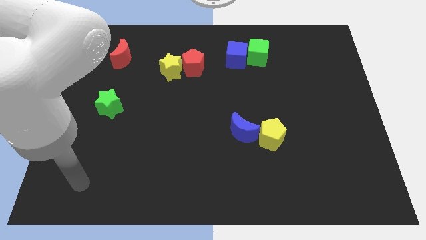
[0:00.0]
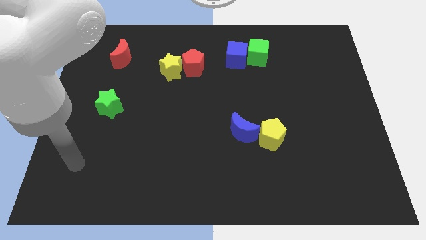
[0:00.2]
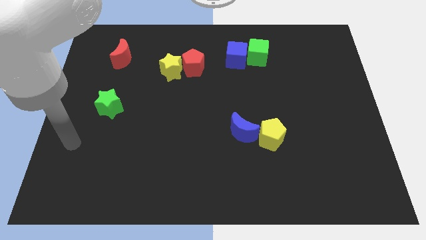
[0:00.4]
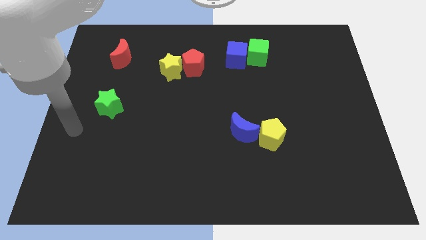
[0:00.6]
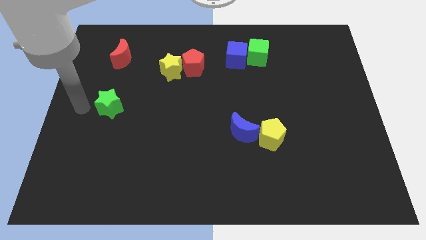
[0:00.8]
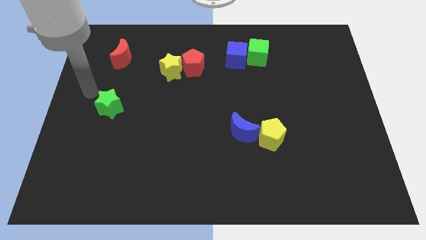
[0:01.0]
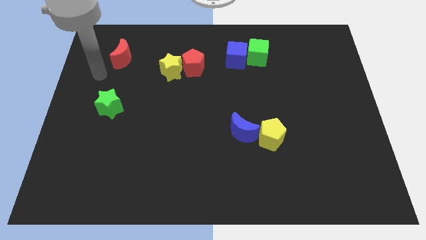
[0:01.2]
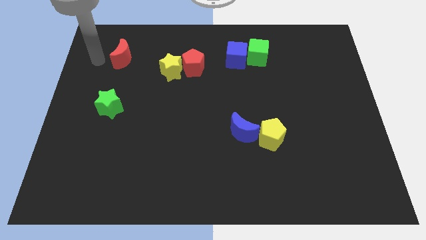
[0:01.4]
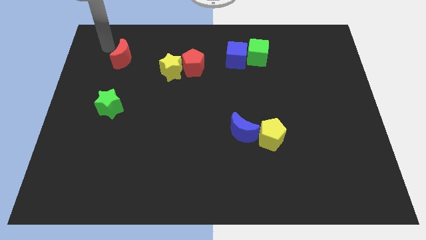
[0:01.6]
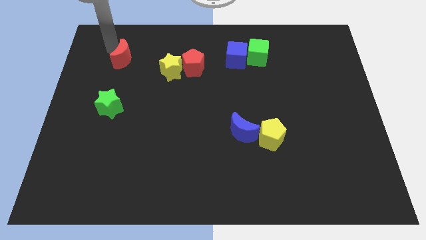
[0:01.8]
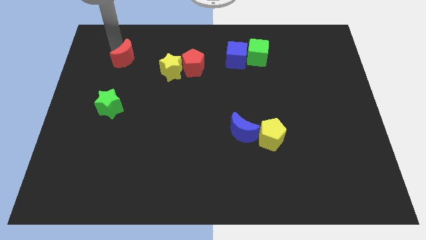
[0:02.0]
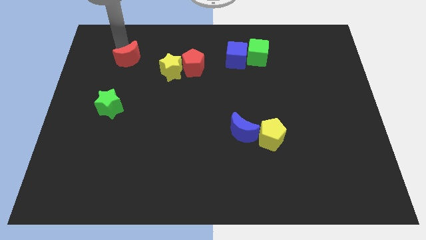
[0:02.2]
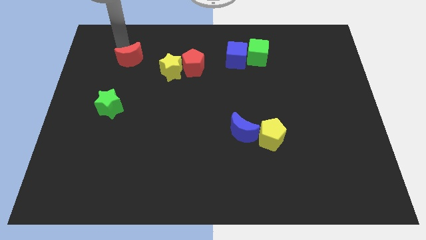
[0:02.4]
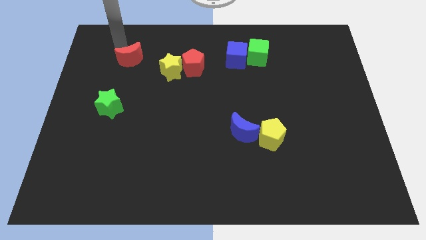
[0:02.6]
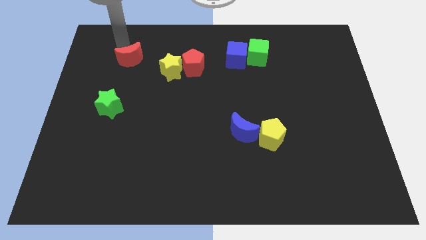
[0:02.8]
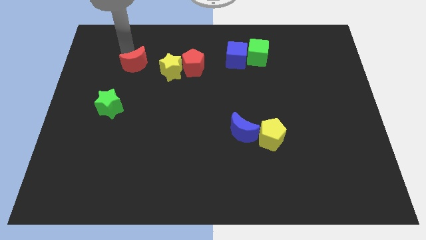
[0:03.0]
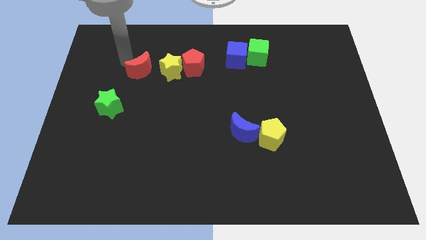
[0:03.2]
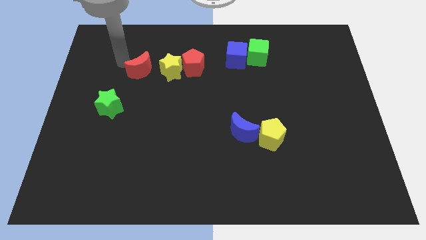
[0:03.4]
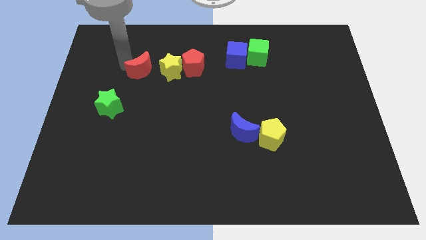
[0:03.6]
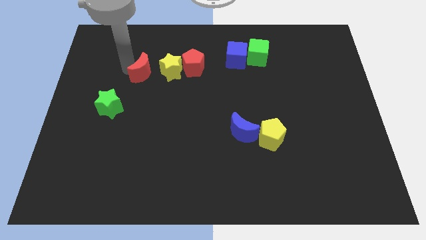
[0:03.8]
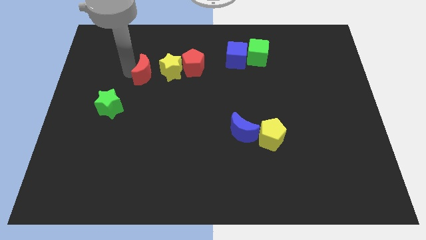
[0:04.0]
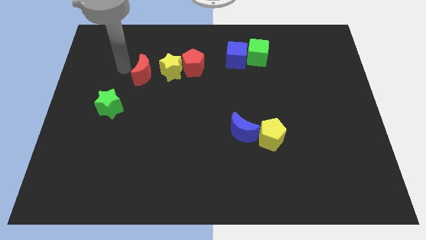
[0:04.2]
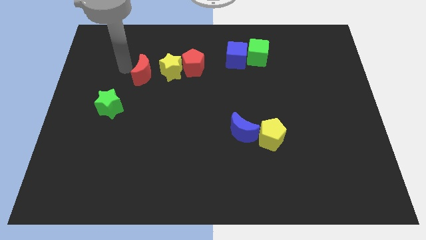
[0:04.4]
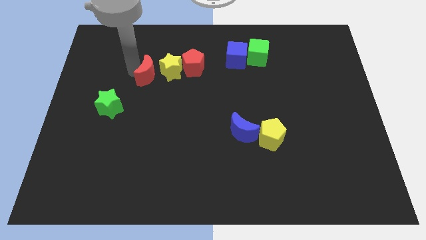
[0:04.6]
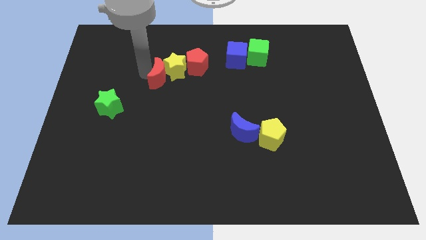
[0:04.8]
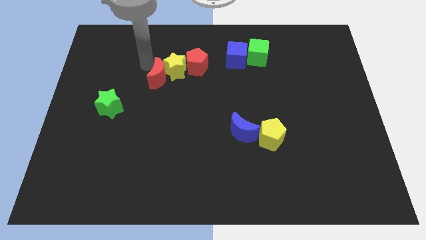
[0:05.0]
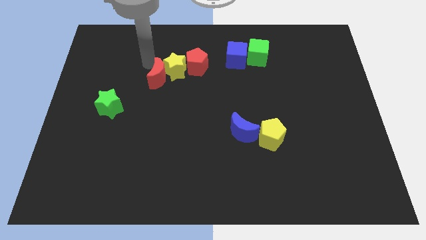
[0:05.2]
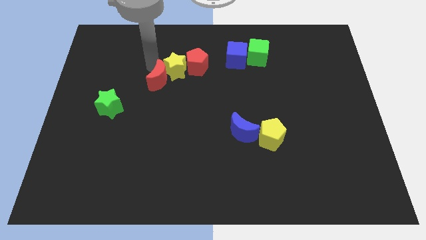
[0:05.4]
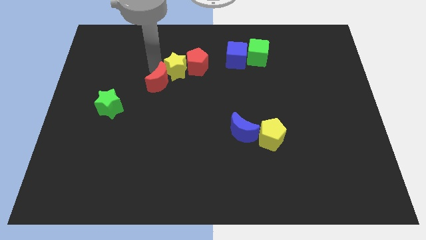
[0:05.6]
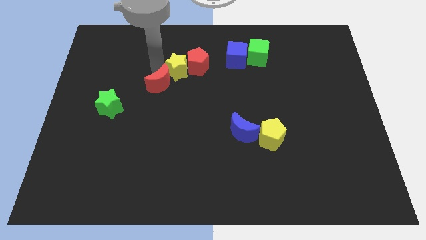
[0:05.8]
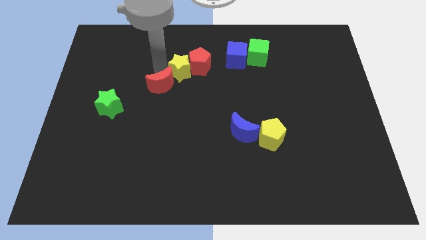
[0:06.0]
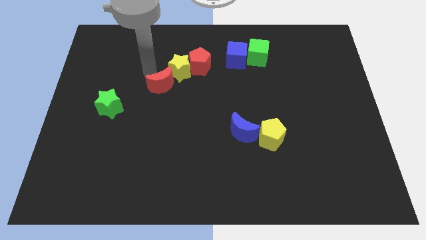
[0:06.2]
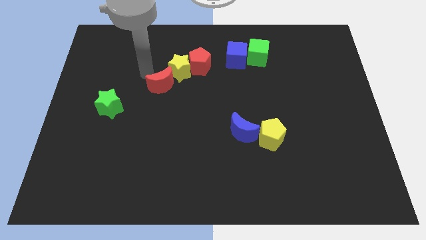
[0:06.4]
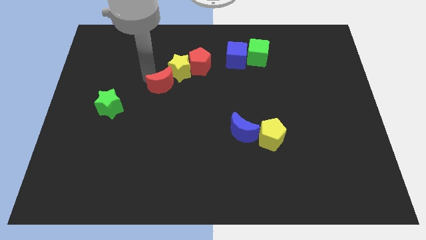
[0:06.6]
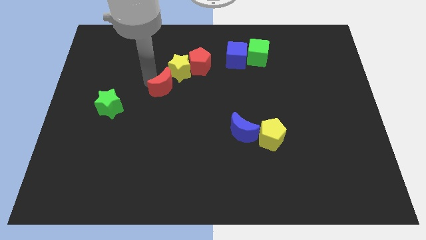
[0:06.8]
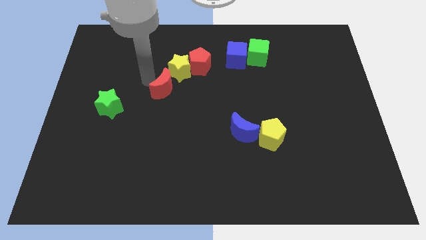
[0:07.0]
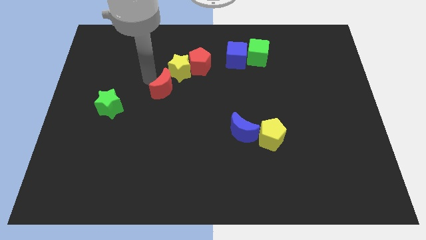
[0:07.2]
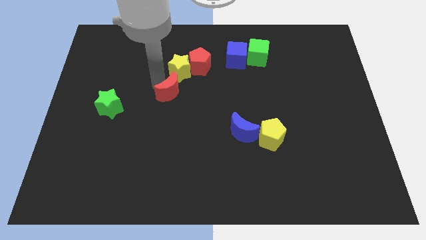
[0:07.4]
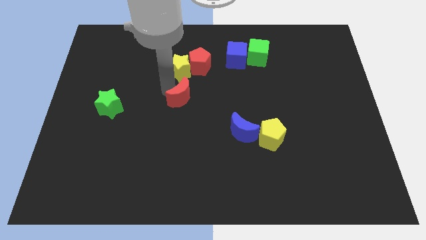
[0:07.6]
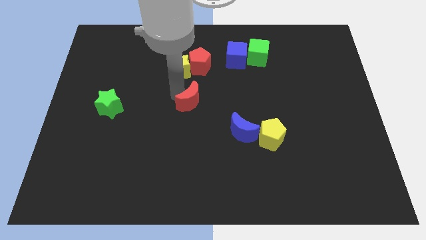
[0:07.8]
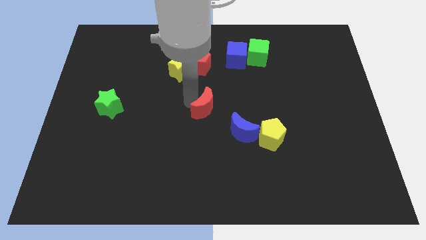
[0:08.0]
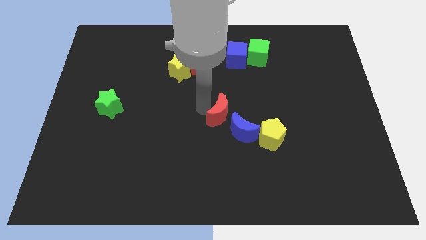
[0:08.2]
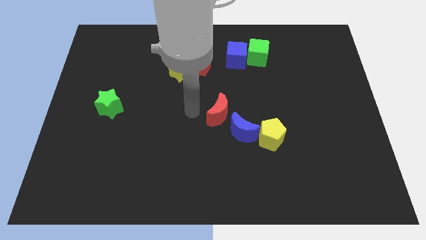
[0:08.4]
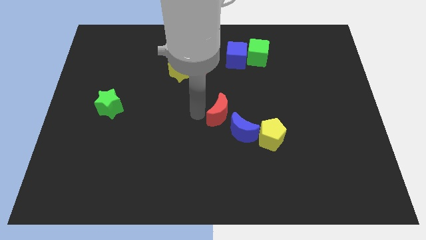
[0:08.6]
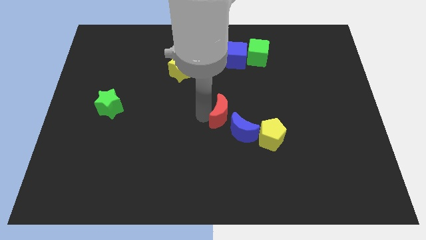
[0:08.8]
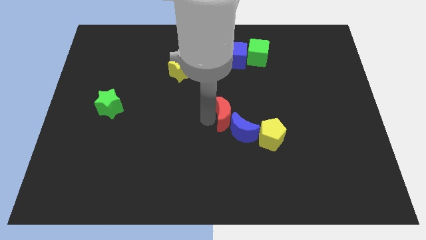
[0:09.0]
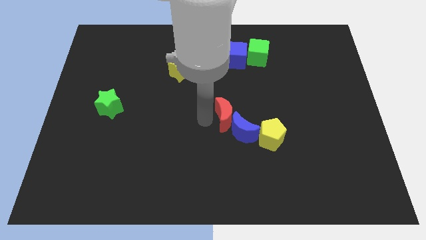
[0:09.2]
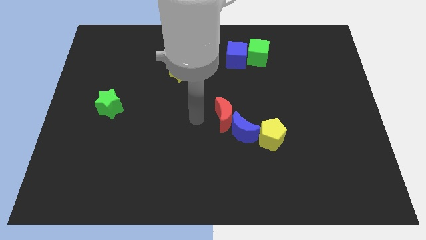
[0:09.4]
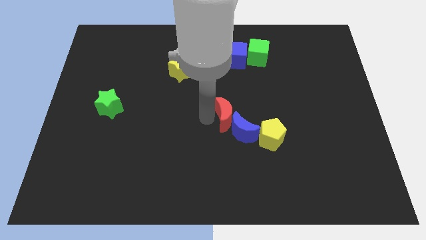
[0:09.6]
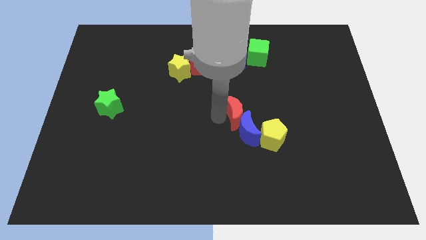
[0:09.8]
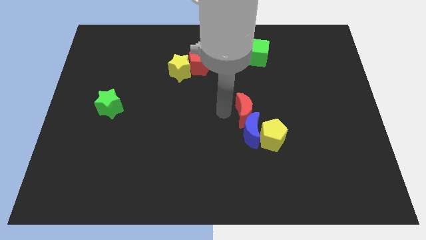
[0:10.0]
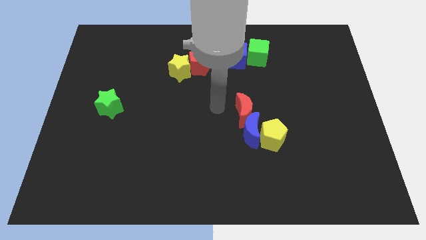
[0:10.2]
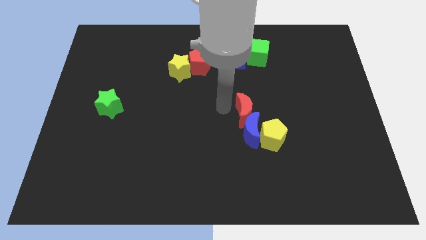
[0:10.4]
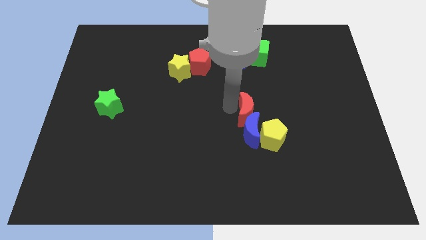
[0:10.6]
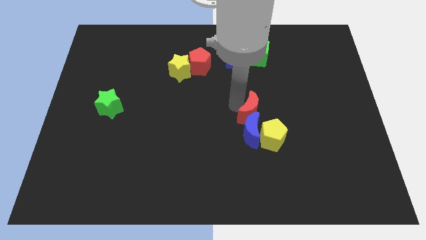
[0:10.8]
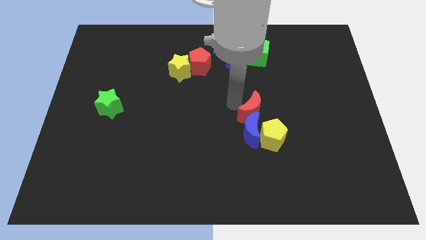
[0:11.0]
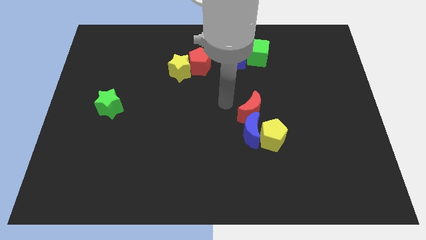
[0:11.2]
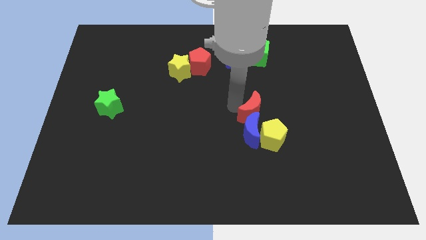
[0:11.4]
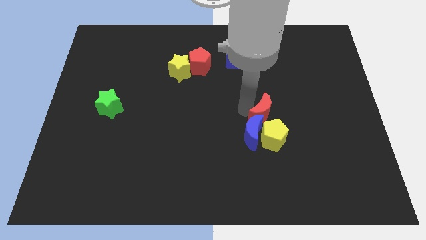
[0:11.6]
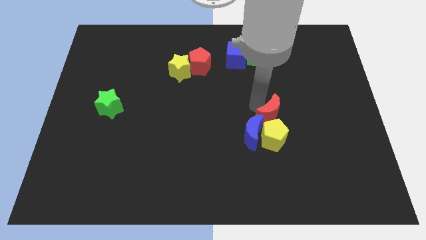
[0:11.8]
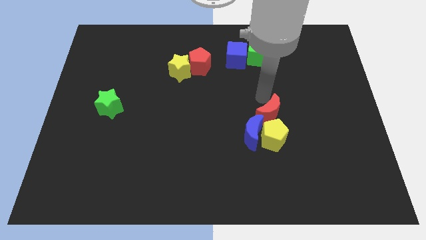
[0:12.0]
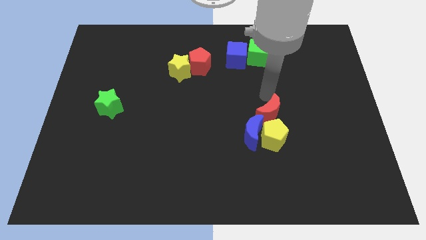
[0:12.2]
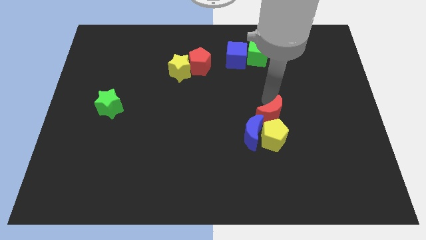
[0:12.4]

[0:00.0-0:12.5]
push the red moon close to the yellow pentagon

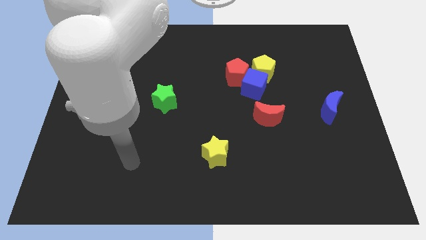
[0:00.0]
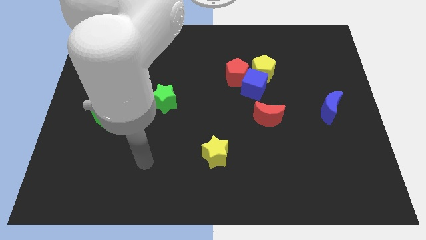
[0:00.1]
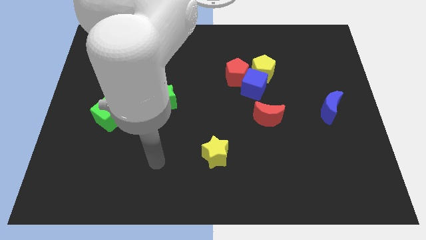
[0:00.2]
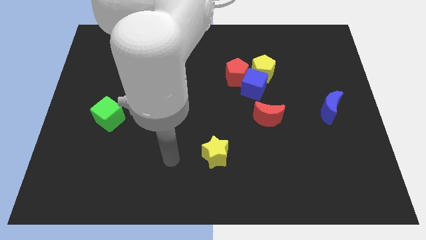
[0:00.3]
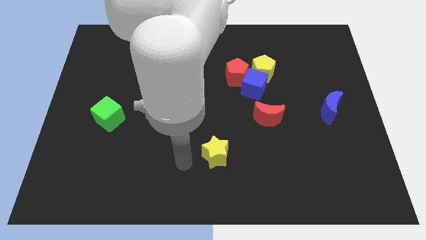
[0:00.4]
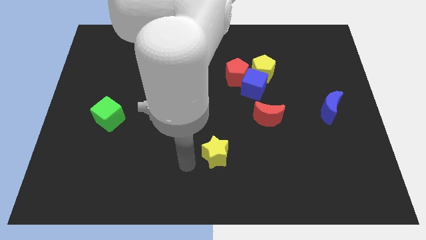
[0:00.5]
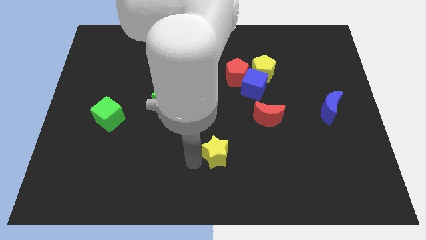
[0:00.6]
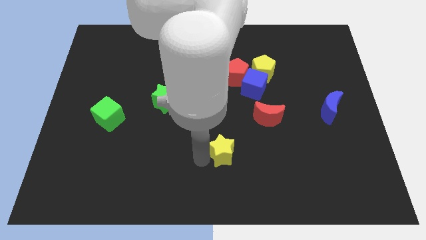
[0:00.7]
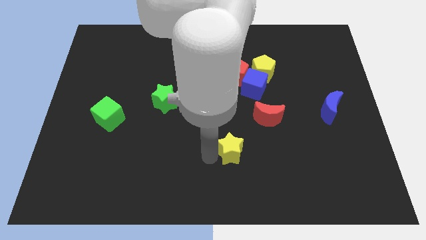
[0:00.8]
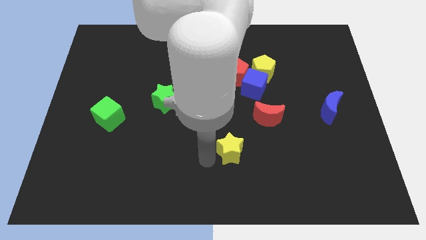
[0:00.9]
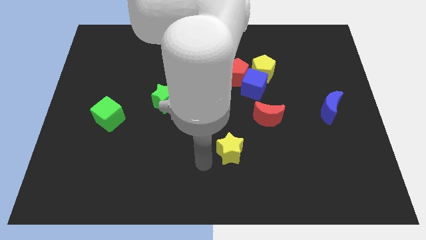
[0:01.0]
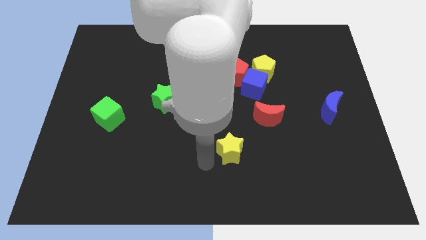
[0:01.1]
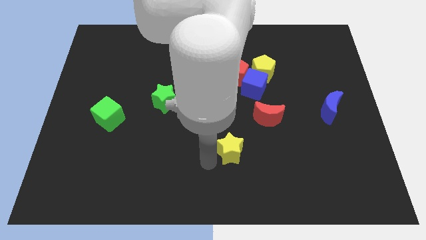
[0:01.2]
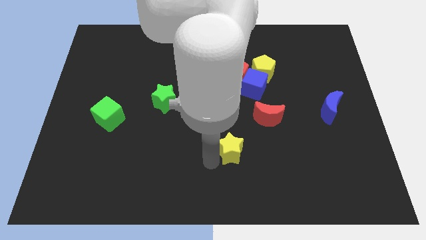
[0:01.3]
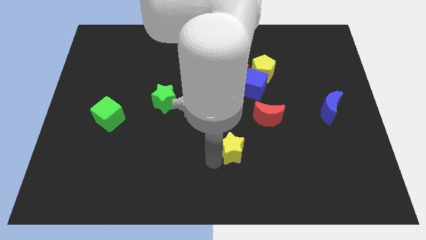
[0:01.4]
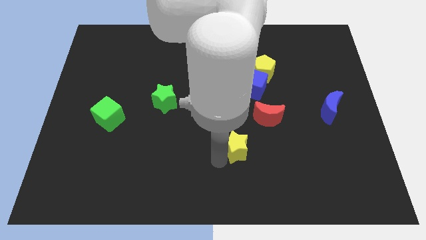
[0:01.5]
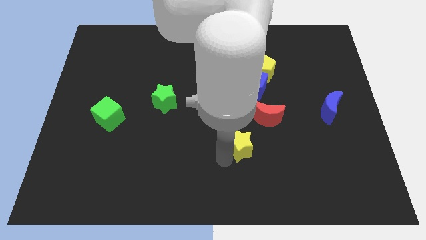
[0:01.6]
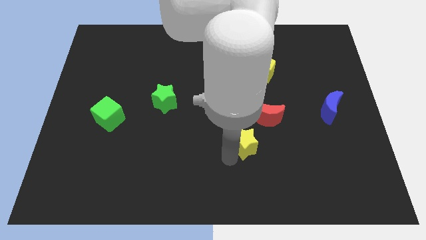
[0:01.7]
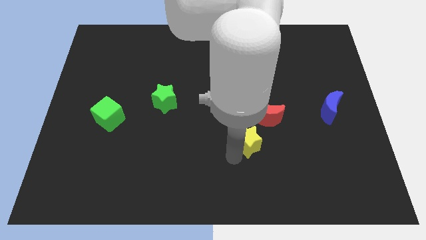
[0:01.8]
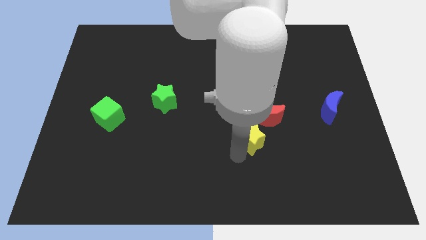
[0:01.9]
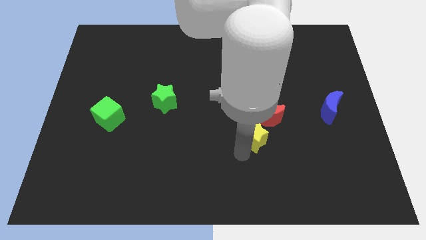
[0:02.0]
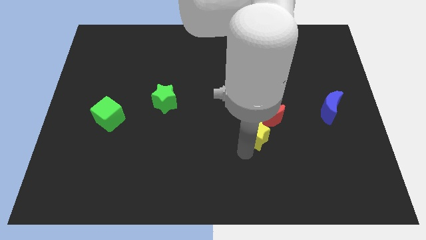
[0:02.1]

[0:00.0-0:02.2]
put the yellow star close to the red moon
